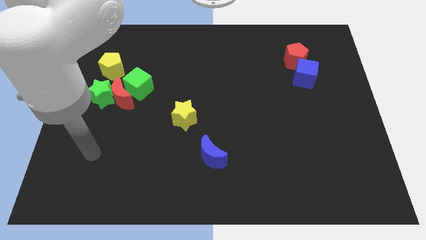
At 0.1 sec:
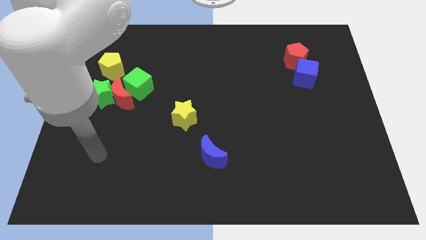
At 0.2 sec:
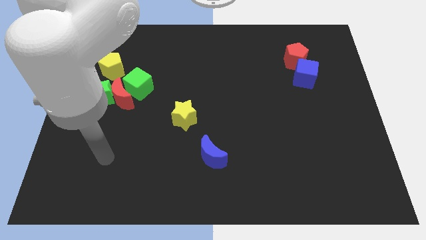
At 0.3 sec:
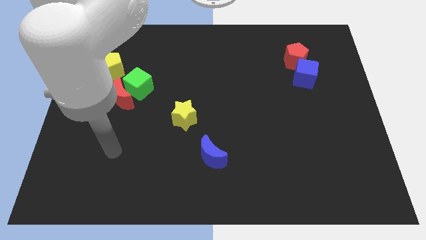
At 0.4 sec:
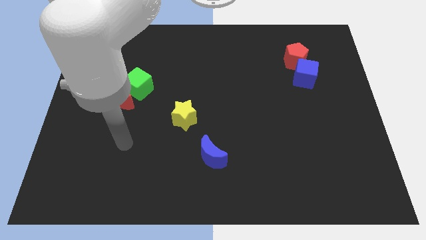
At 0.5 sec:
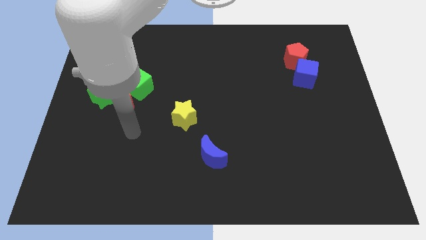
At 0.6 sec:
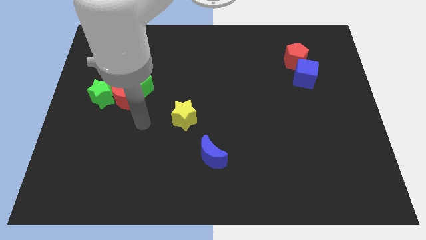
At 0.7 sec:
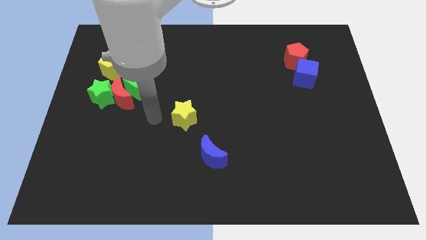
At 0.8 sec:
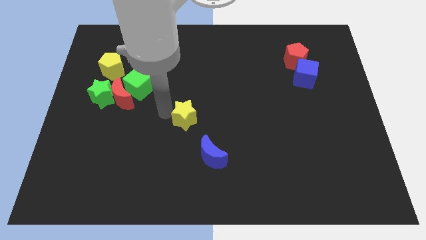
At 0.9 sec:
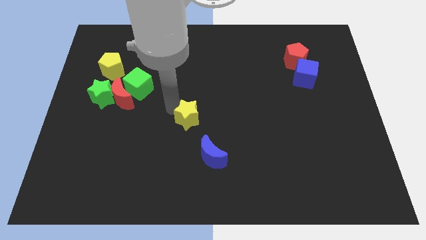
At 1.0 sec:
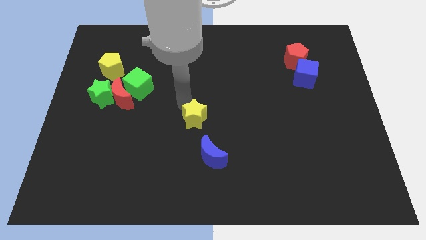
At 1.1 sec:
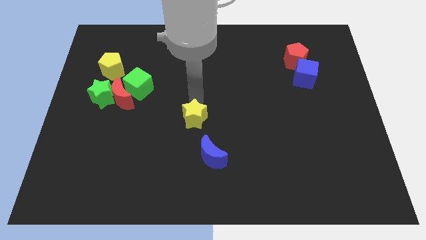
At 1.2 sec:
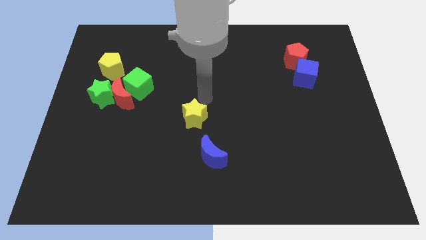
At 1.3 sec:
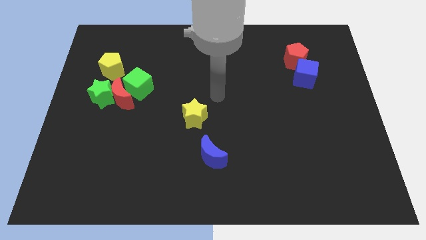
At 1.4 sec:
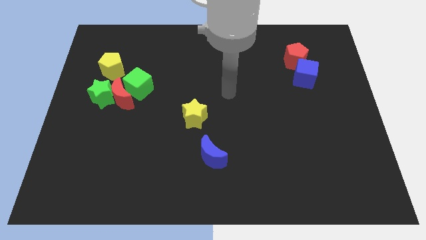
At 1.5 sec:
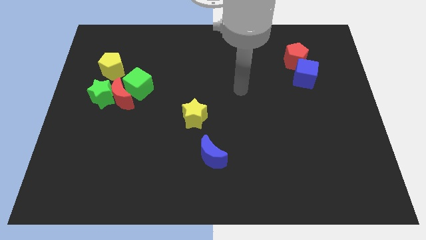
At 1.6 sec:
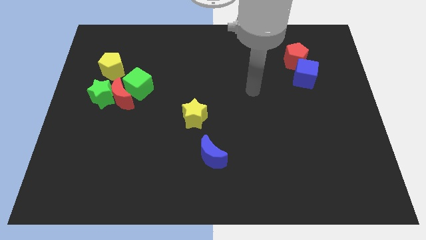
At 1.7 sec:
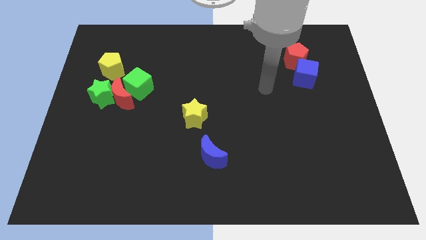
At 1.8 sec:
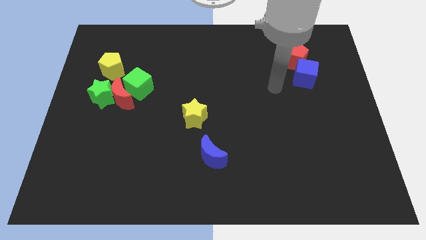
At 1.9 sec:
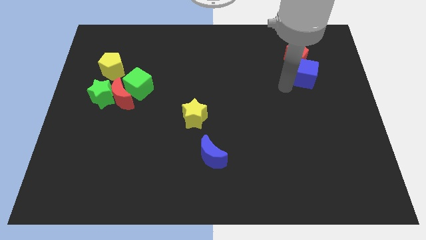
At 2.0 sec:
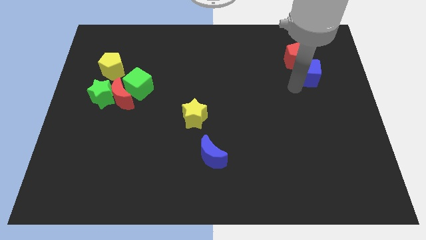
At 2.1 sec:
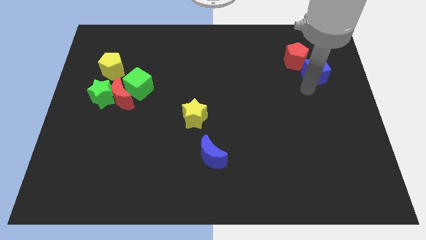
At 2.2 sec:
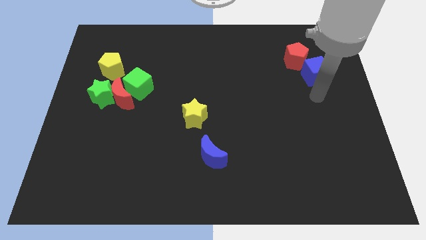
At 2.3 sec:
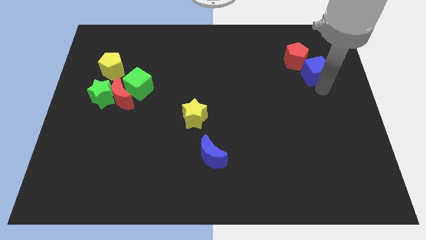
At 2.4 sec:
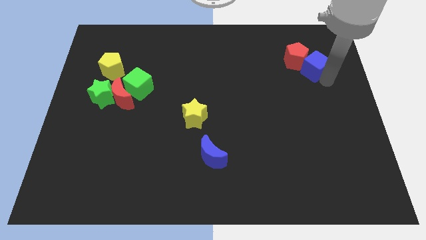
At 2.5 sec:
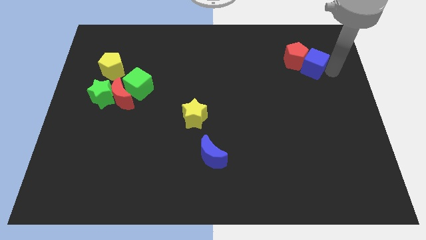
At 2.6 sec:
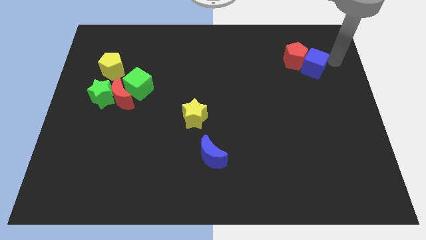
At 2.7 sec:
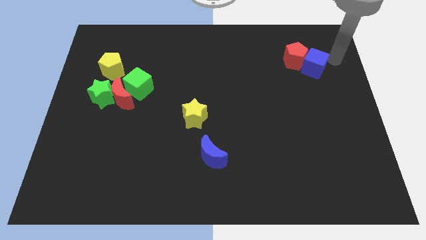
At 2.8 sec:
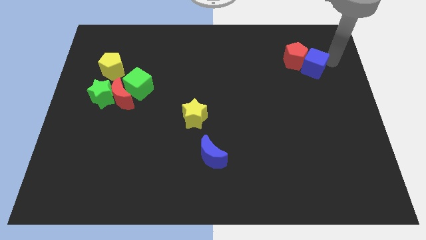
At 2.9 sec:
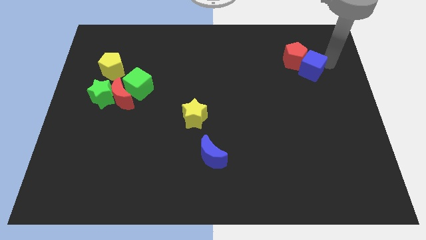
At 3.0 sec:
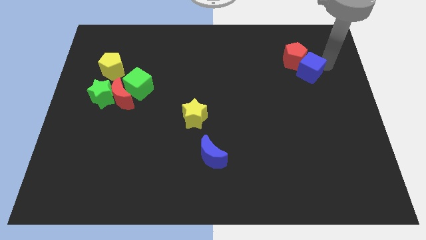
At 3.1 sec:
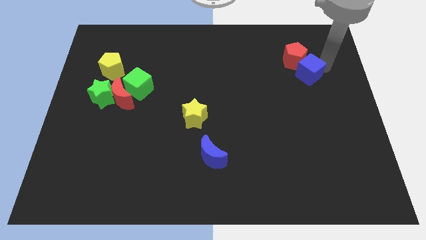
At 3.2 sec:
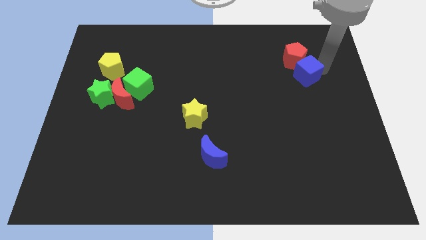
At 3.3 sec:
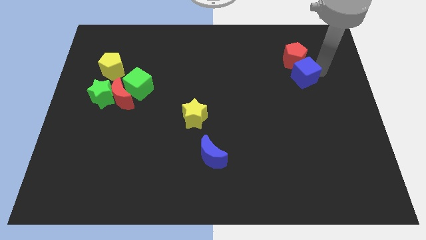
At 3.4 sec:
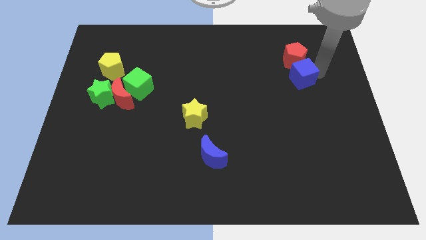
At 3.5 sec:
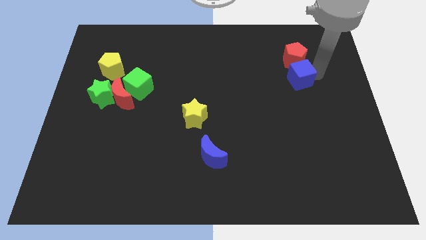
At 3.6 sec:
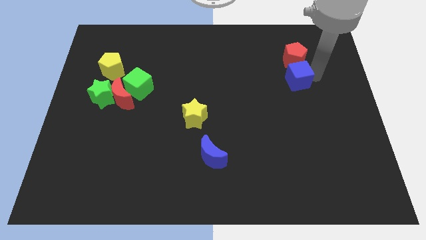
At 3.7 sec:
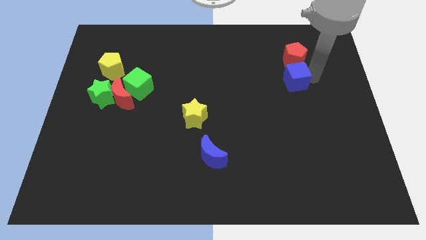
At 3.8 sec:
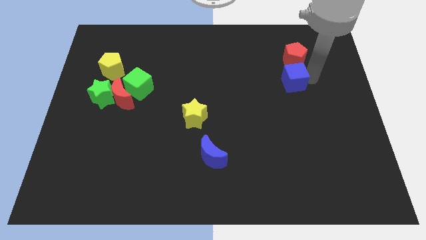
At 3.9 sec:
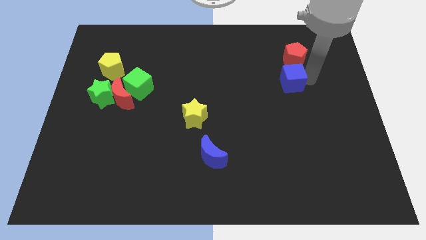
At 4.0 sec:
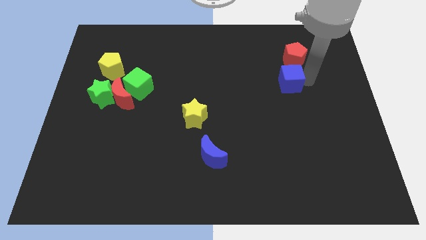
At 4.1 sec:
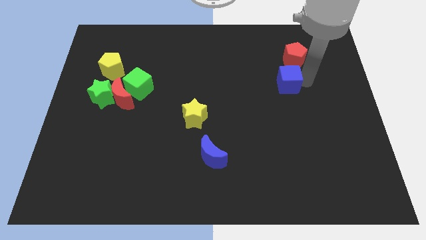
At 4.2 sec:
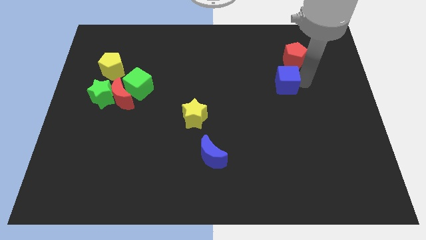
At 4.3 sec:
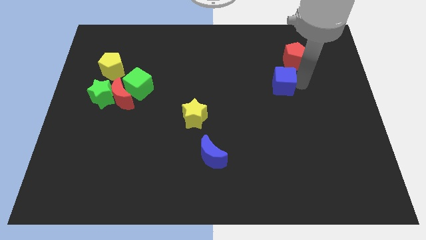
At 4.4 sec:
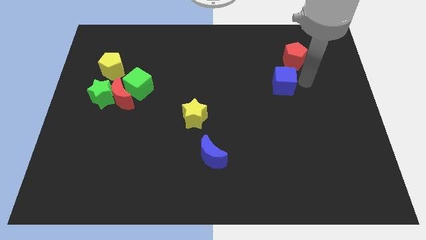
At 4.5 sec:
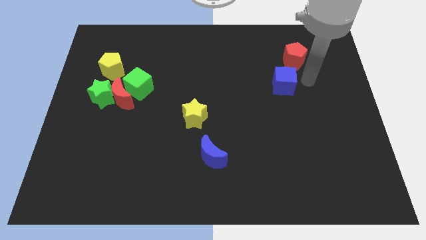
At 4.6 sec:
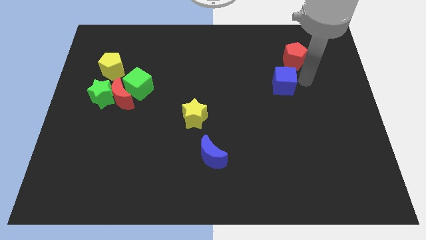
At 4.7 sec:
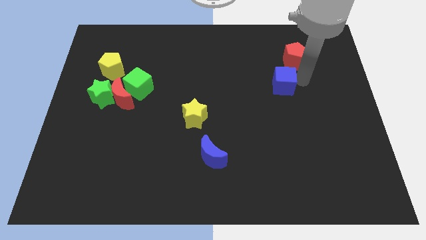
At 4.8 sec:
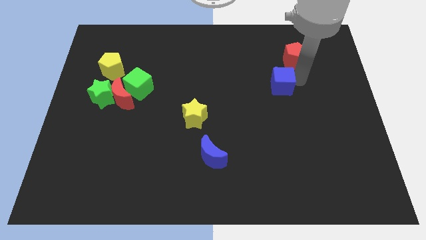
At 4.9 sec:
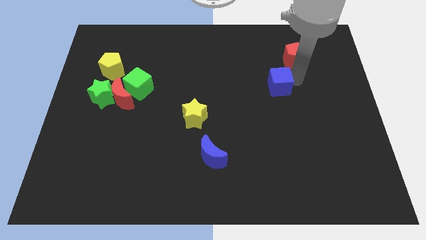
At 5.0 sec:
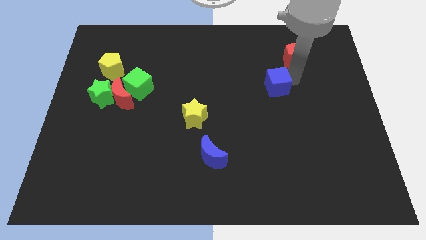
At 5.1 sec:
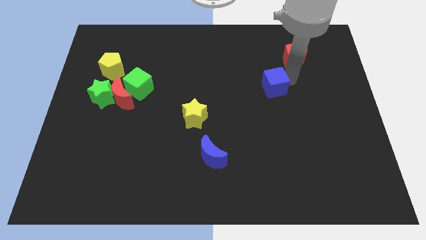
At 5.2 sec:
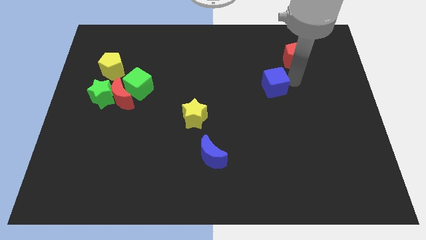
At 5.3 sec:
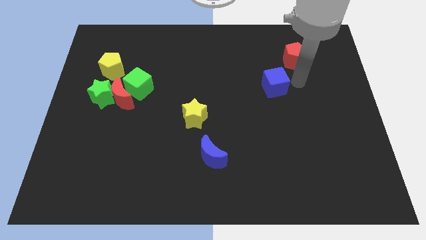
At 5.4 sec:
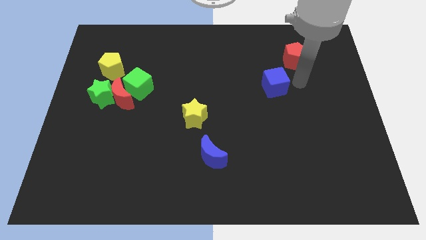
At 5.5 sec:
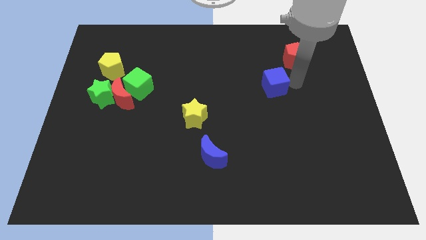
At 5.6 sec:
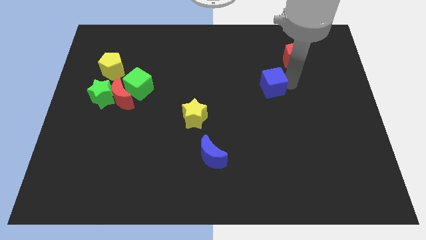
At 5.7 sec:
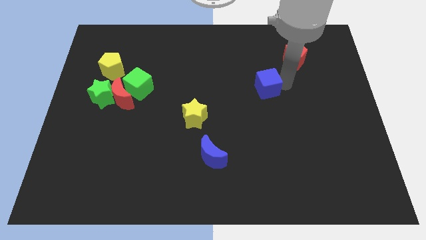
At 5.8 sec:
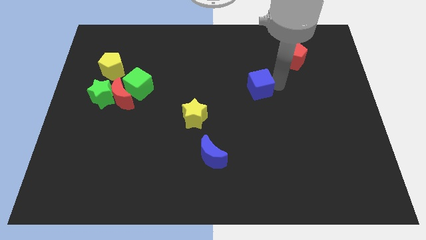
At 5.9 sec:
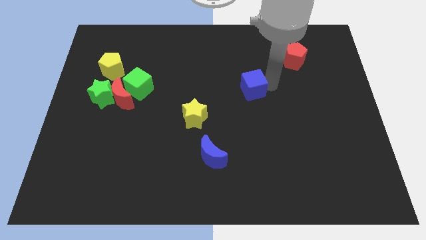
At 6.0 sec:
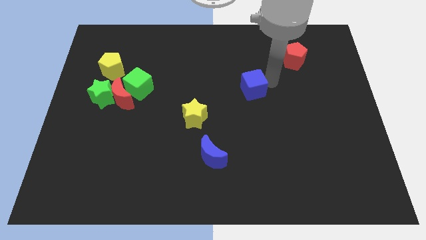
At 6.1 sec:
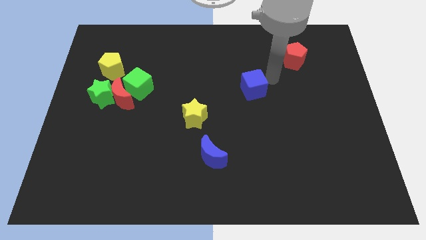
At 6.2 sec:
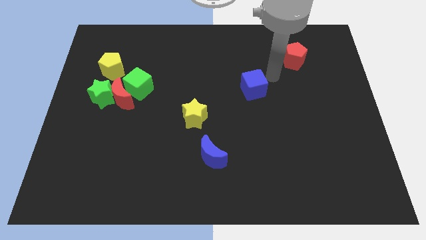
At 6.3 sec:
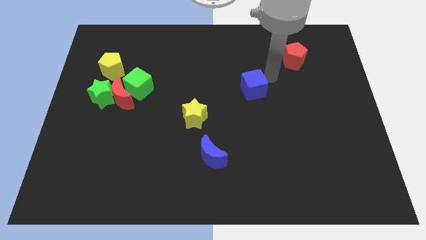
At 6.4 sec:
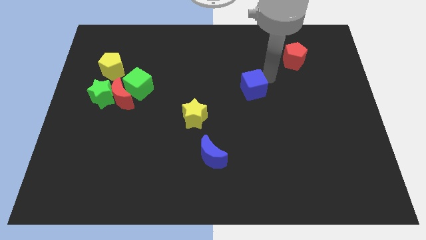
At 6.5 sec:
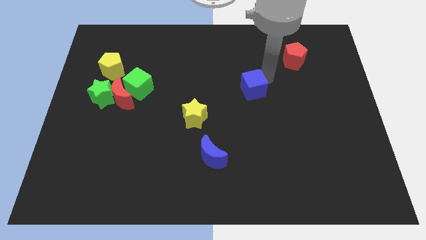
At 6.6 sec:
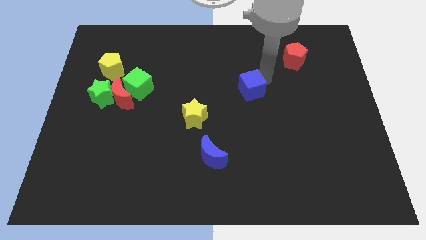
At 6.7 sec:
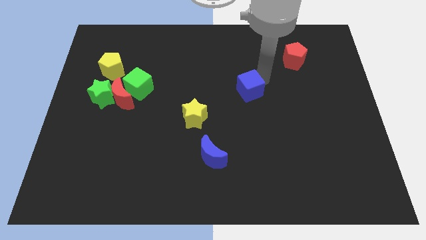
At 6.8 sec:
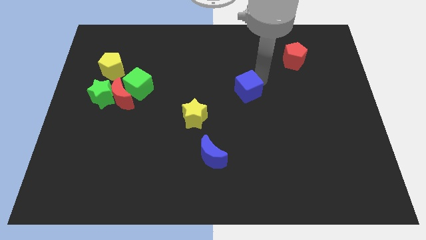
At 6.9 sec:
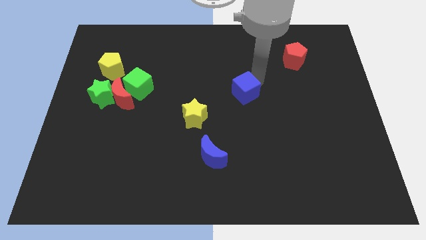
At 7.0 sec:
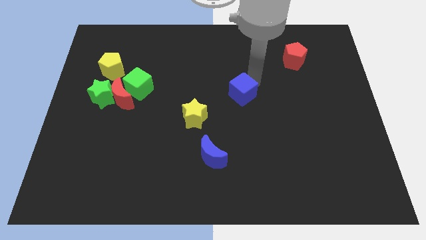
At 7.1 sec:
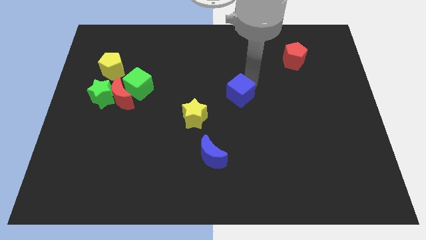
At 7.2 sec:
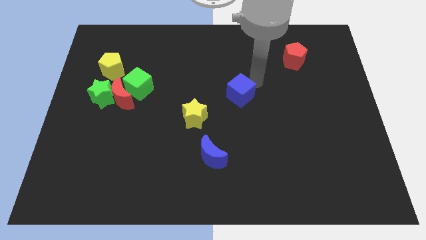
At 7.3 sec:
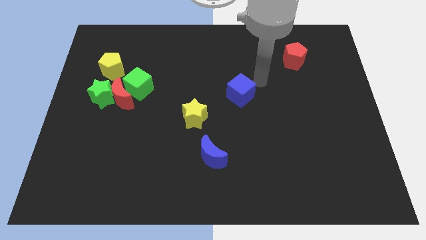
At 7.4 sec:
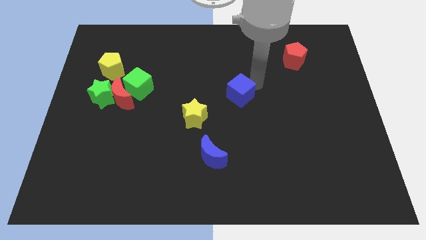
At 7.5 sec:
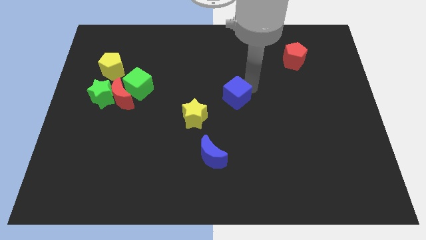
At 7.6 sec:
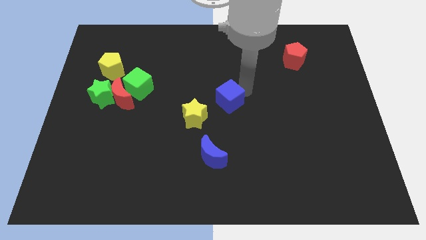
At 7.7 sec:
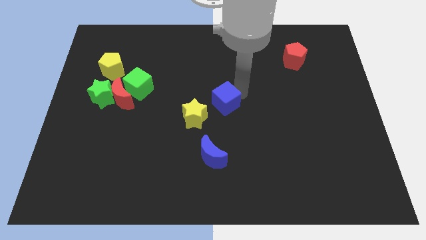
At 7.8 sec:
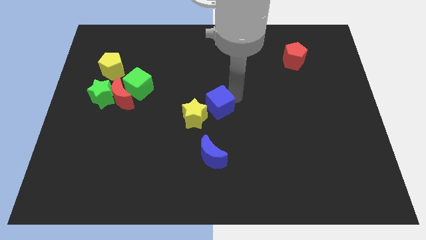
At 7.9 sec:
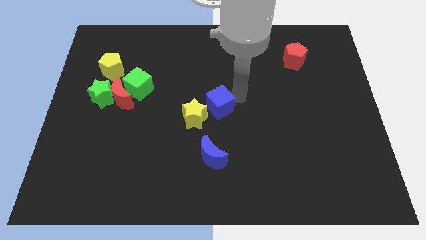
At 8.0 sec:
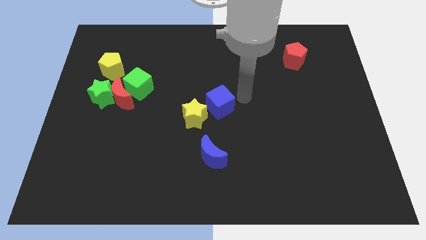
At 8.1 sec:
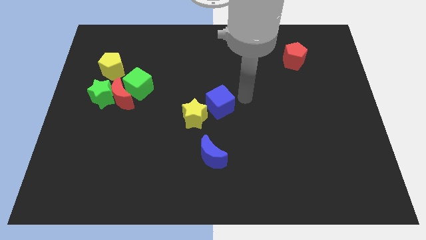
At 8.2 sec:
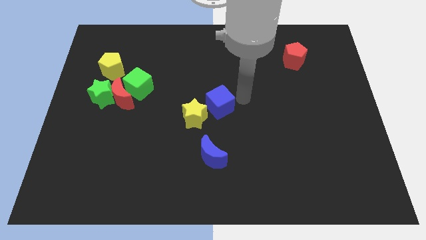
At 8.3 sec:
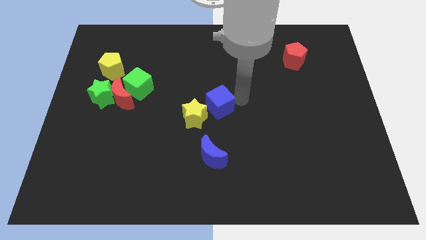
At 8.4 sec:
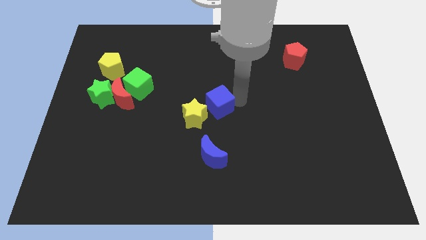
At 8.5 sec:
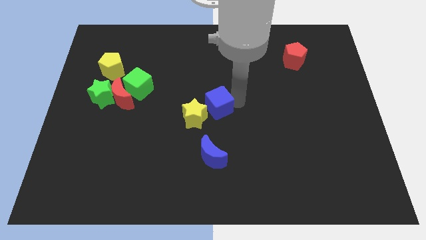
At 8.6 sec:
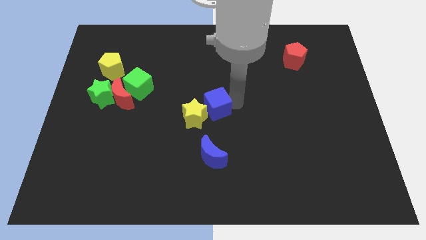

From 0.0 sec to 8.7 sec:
slide the blue cube to the yellow star
